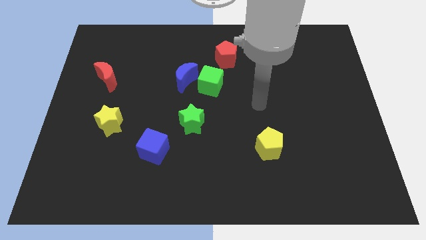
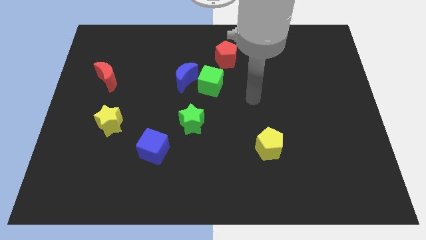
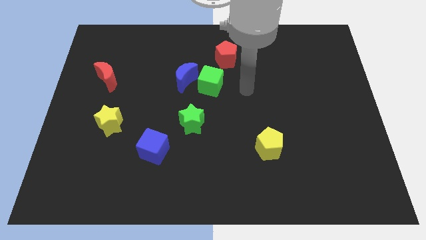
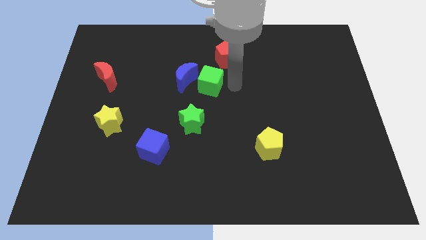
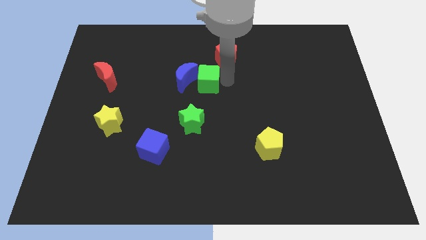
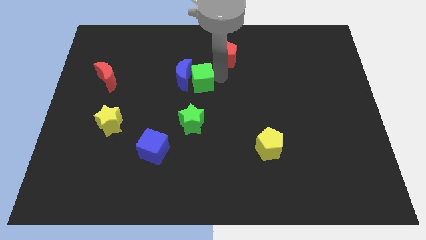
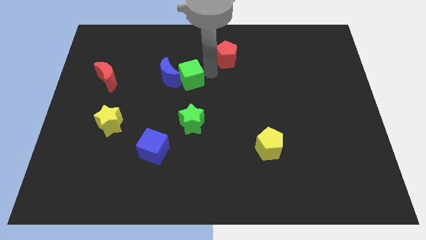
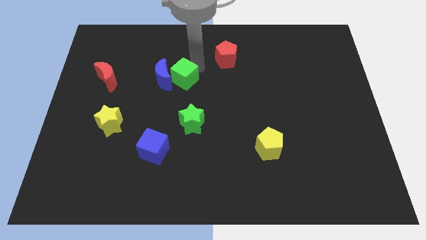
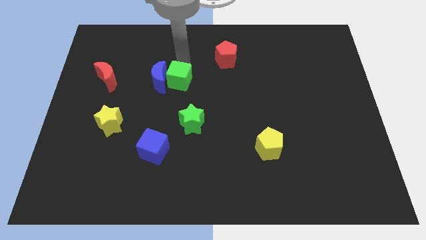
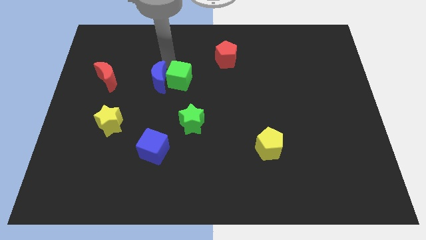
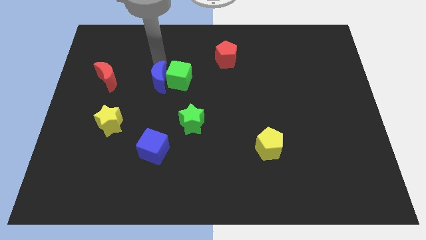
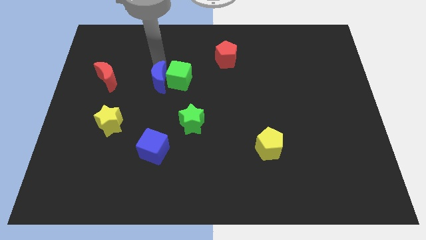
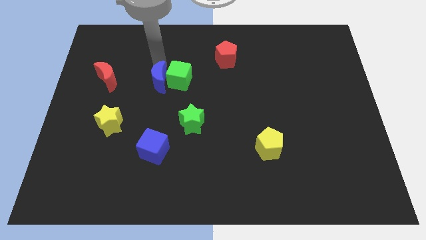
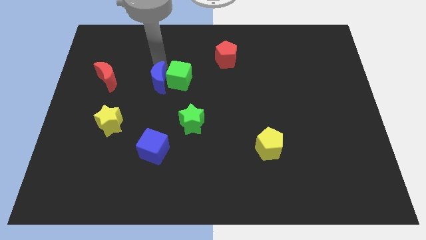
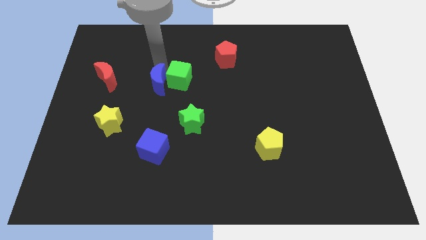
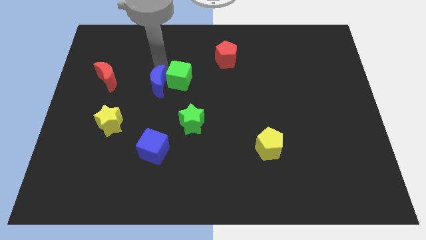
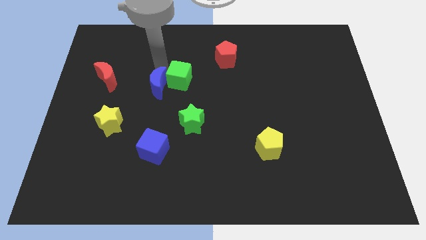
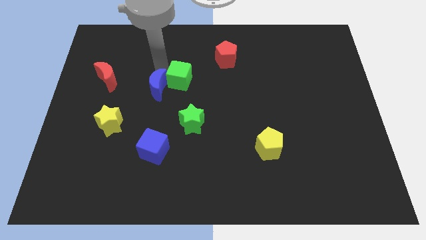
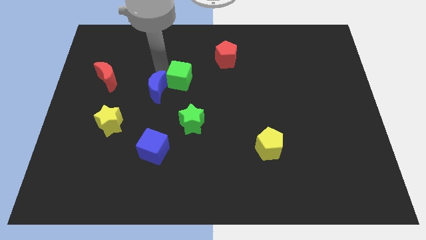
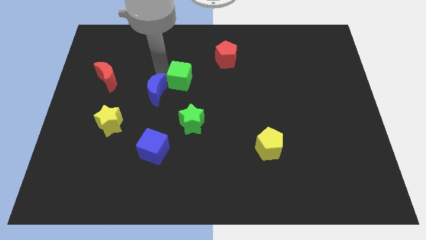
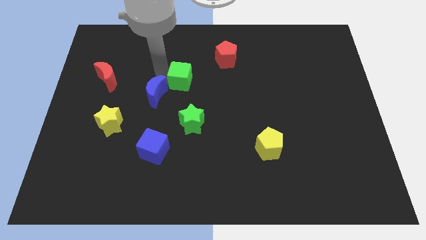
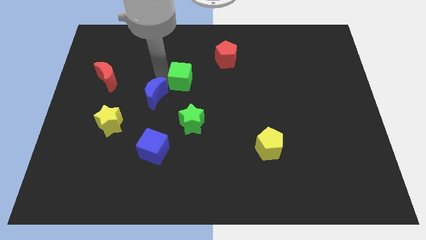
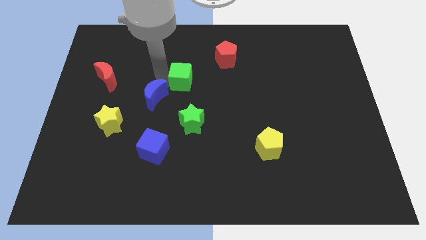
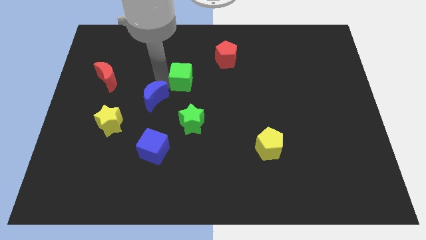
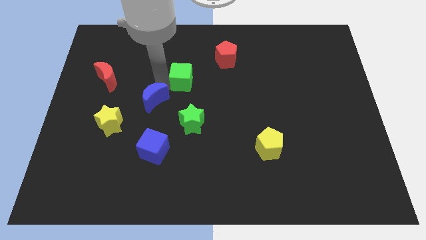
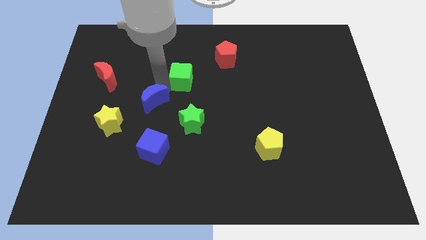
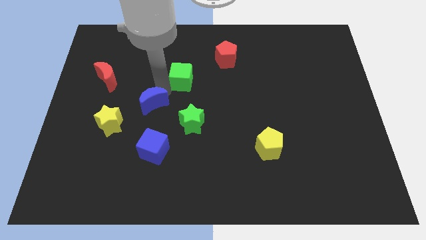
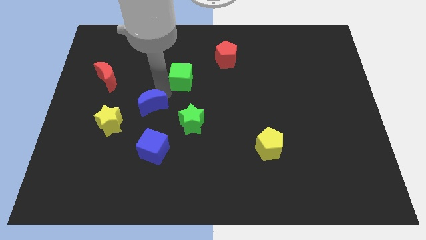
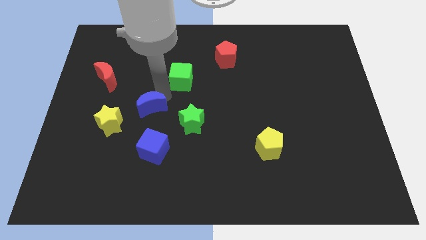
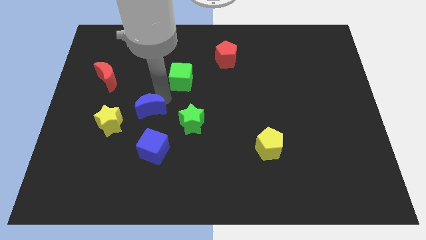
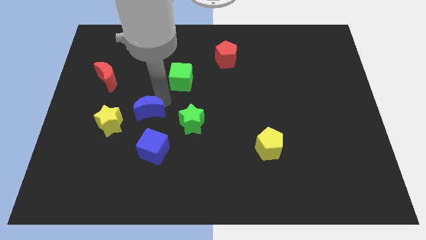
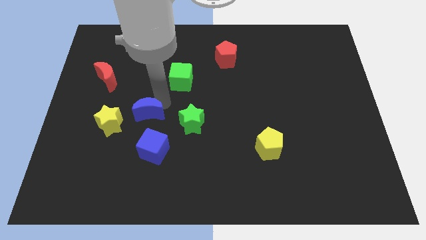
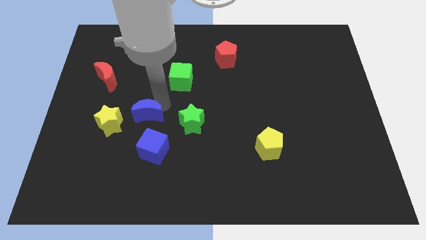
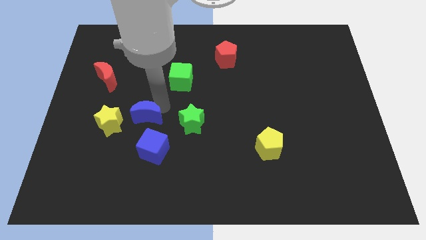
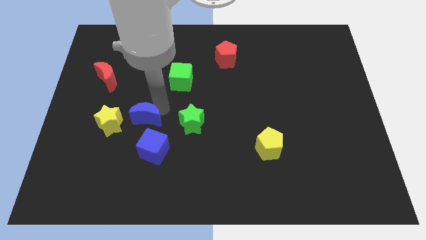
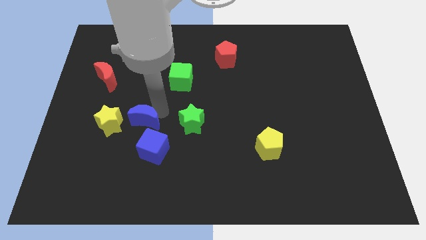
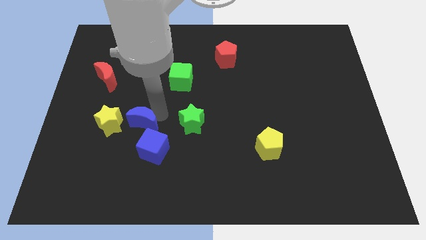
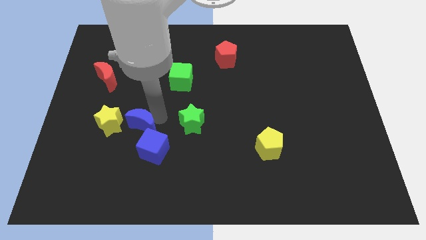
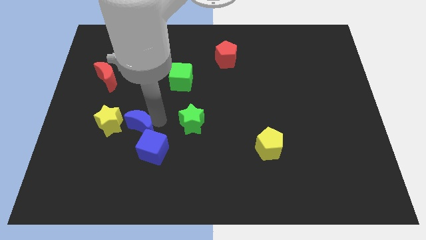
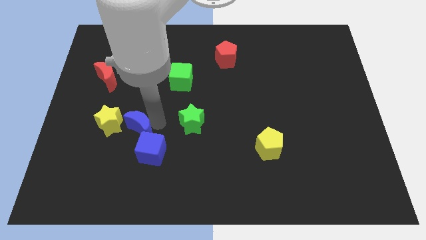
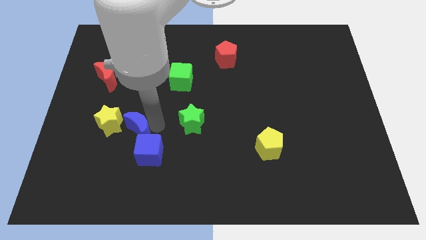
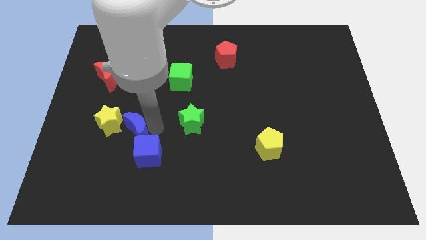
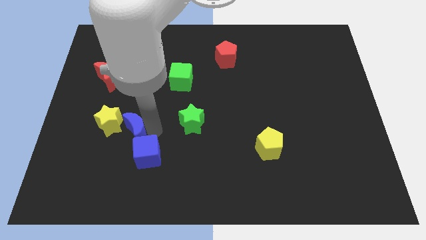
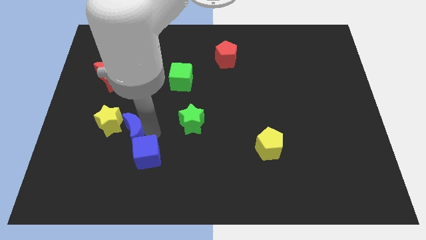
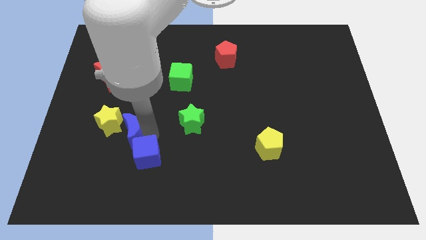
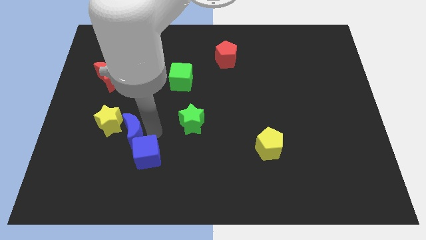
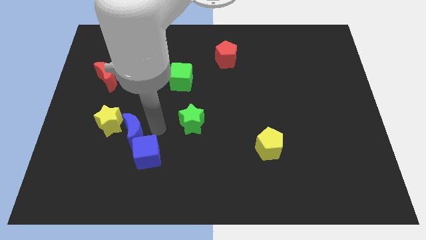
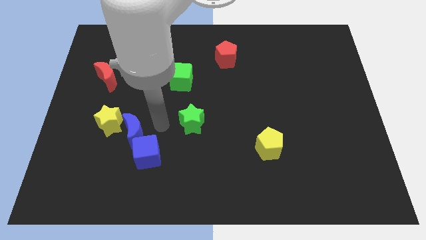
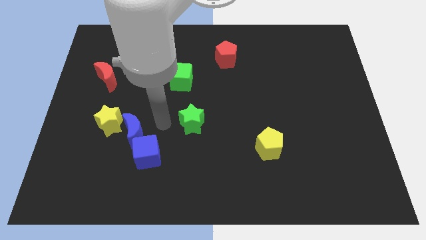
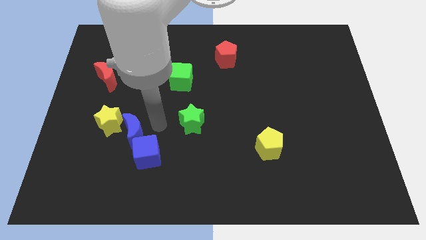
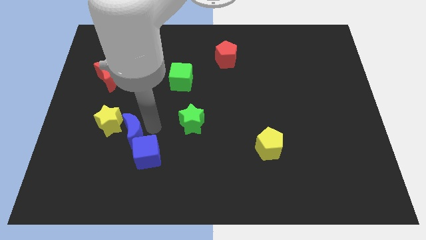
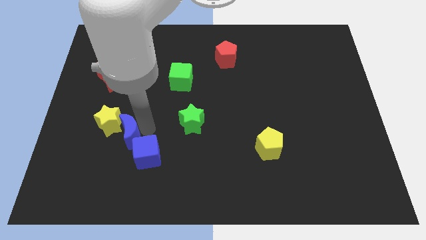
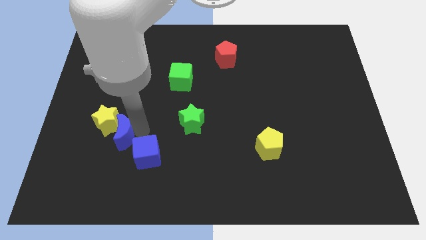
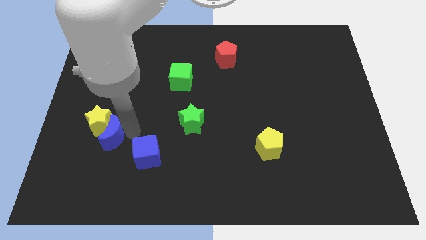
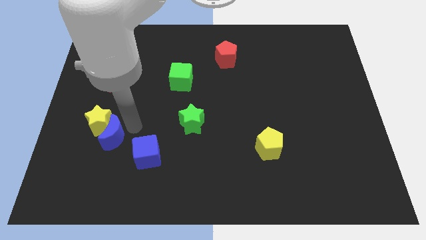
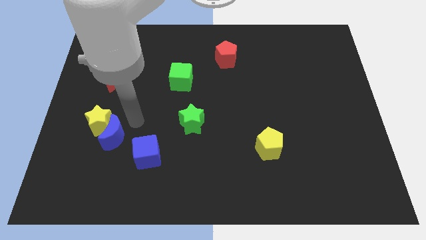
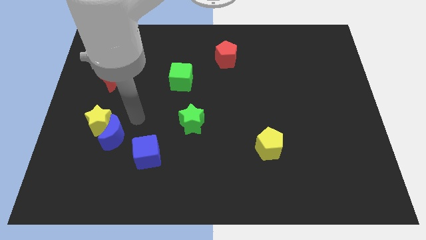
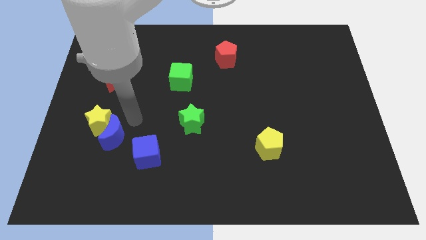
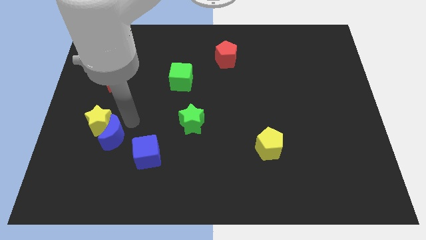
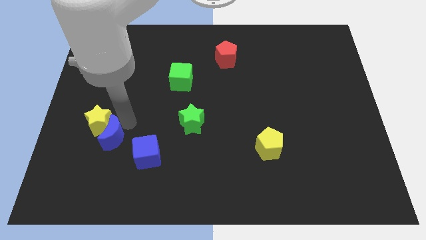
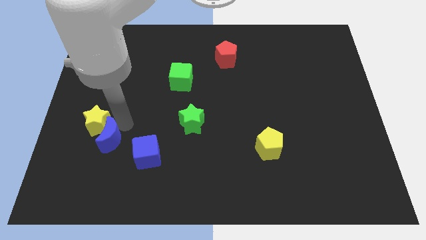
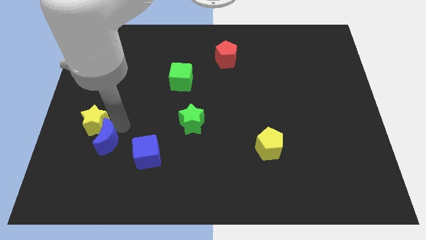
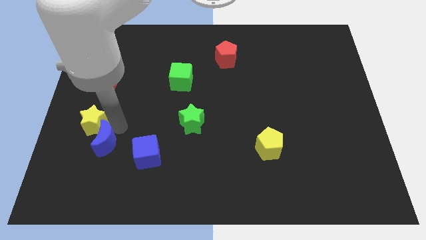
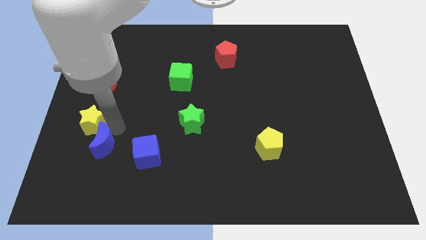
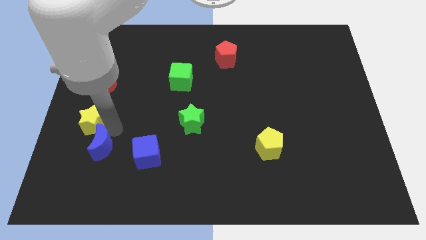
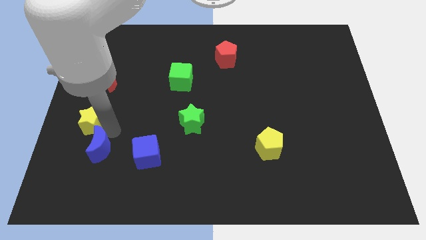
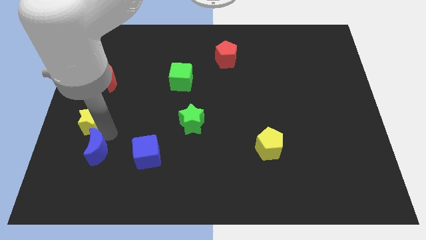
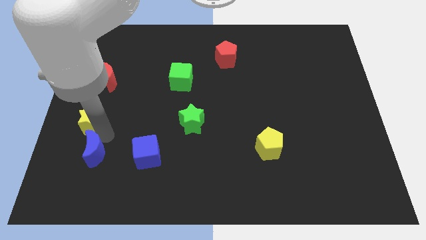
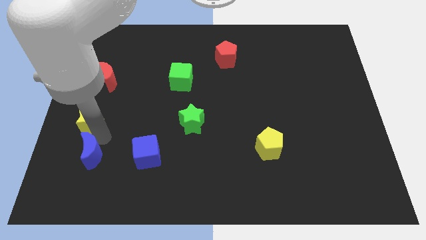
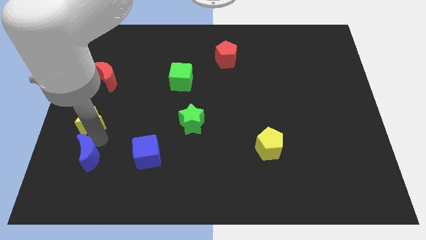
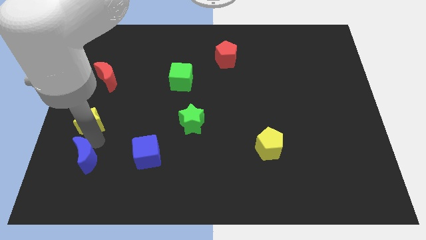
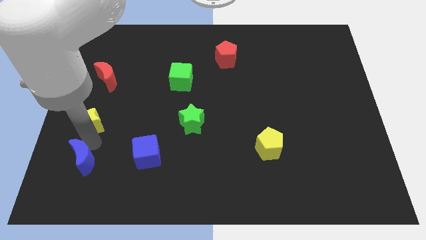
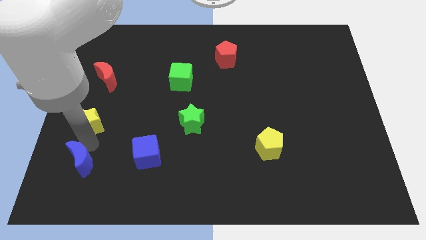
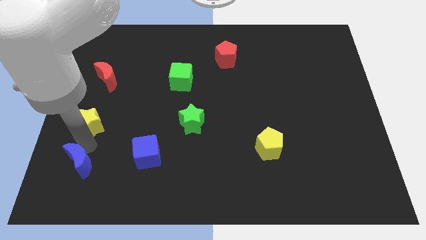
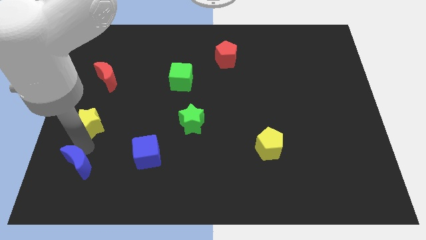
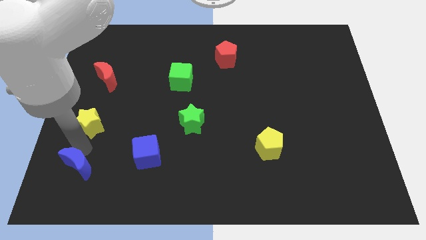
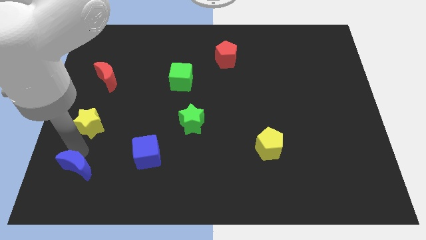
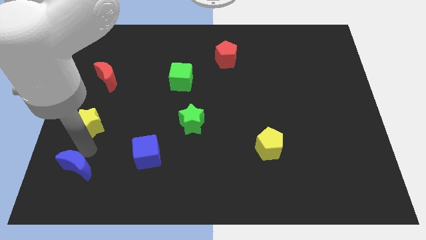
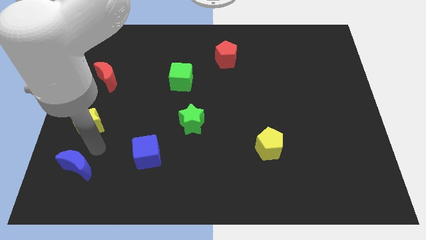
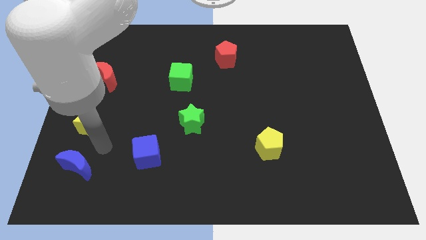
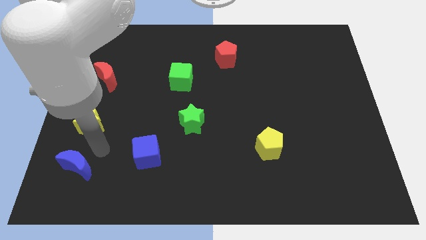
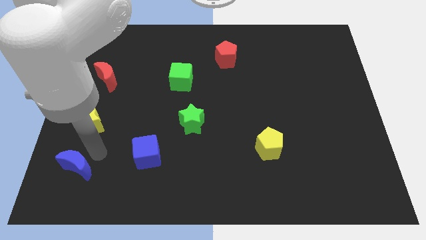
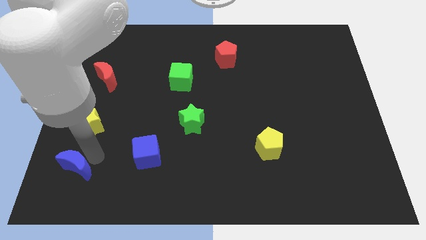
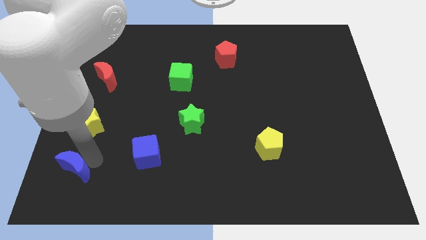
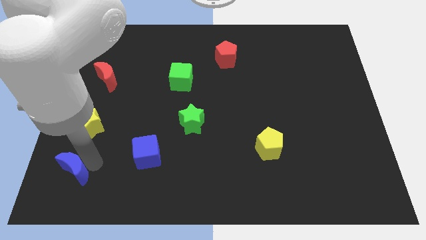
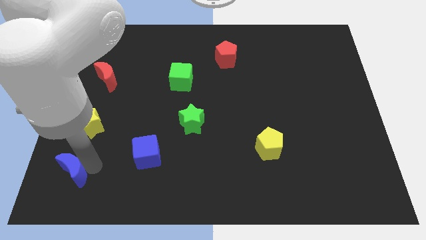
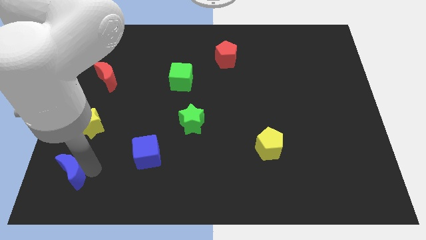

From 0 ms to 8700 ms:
push the blue moon to the lower left corner
